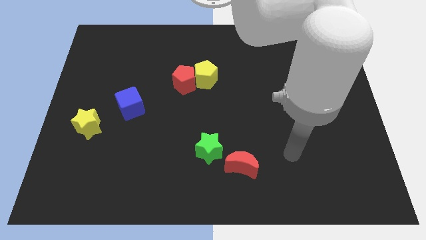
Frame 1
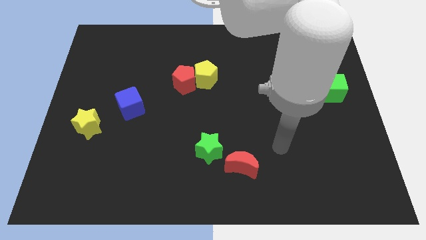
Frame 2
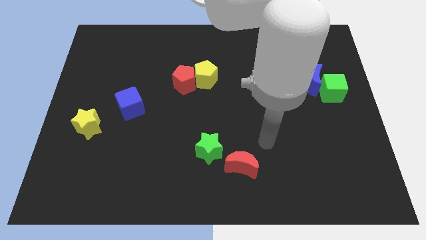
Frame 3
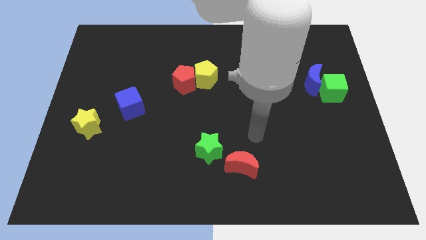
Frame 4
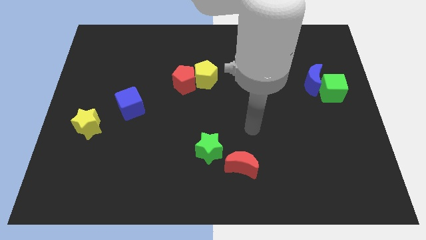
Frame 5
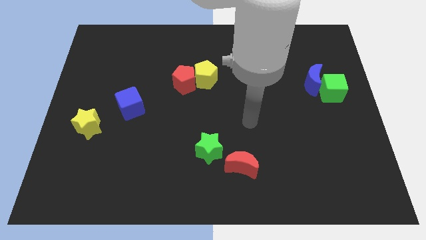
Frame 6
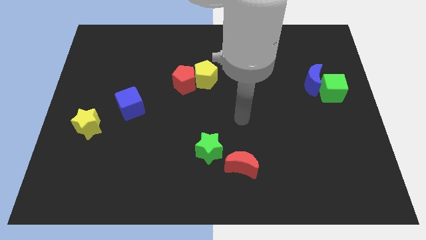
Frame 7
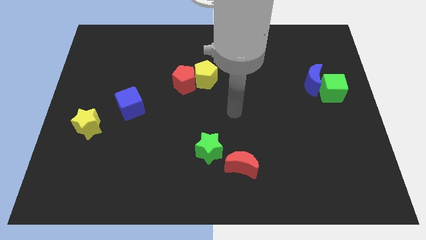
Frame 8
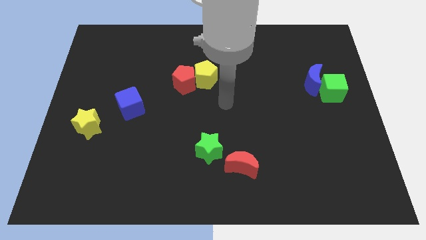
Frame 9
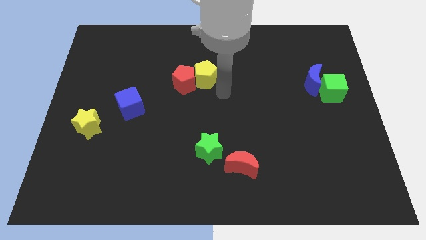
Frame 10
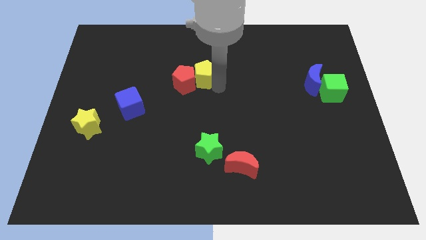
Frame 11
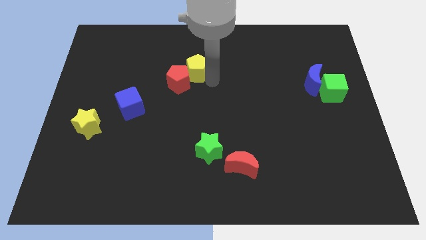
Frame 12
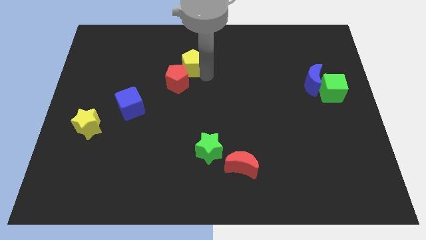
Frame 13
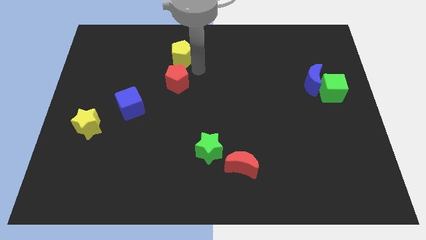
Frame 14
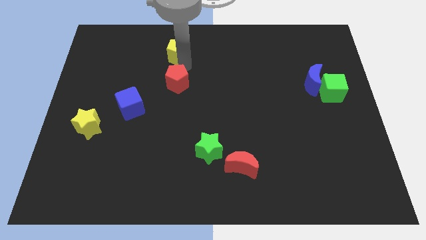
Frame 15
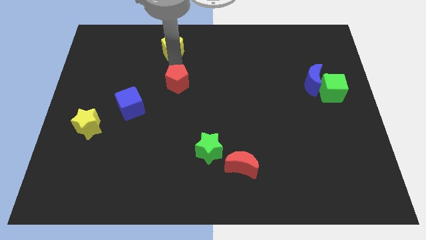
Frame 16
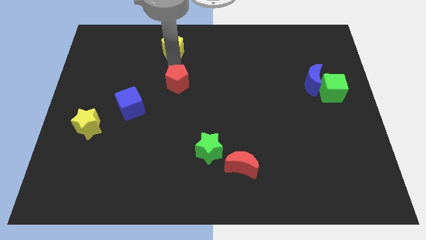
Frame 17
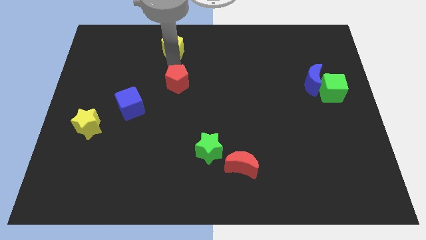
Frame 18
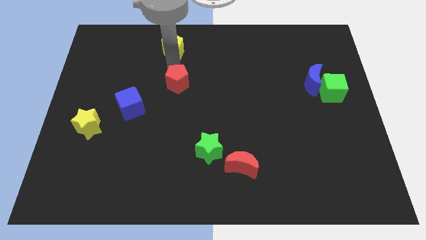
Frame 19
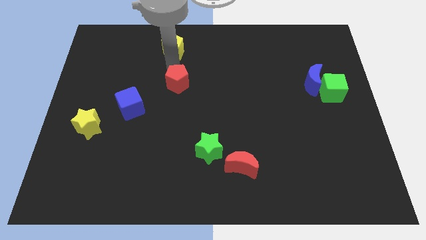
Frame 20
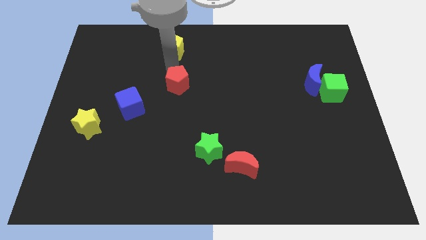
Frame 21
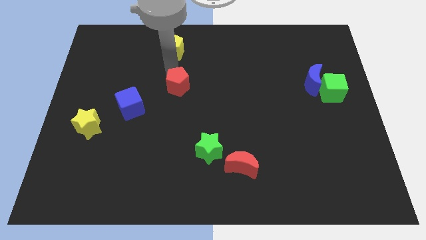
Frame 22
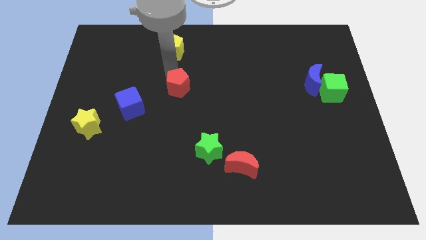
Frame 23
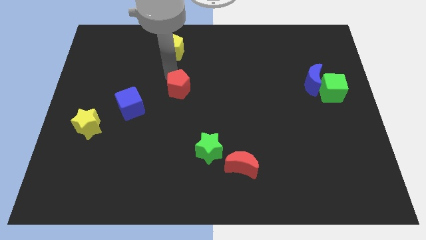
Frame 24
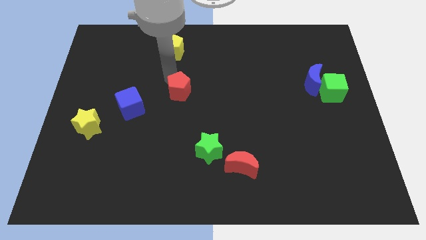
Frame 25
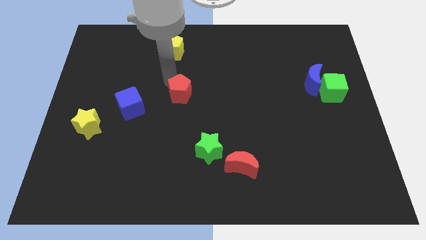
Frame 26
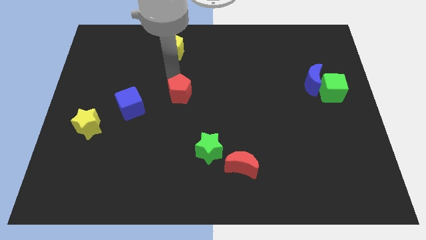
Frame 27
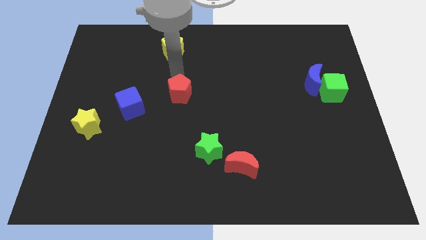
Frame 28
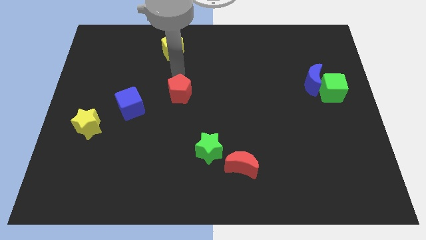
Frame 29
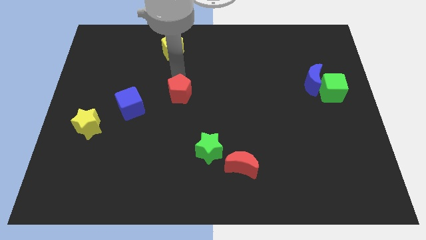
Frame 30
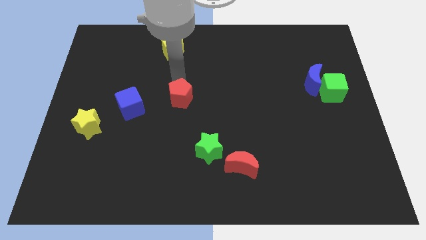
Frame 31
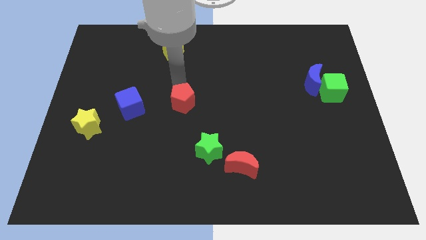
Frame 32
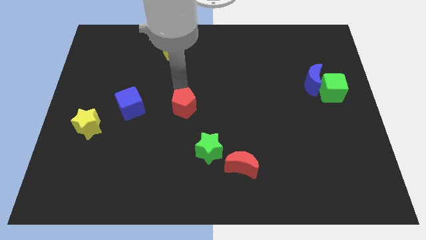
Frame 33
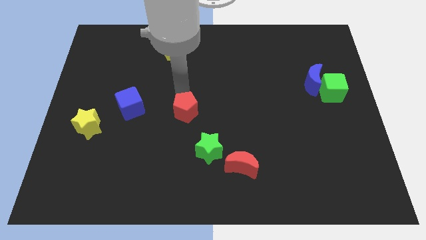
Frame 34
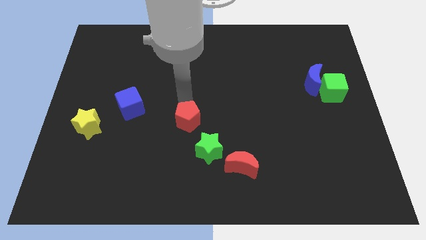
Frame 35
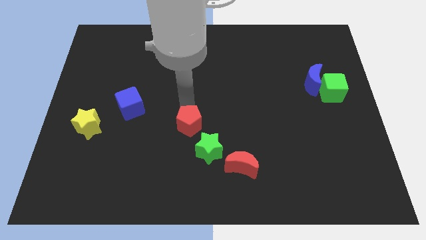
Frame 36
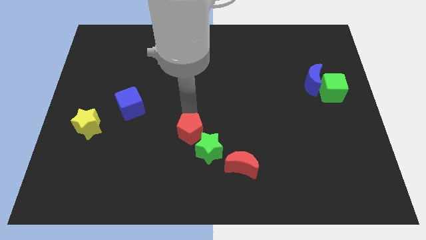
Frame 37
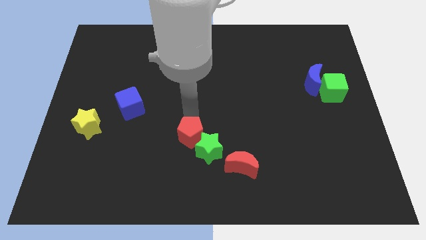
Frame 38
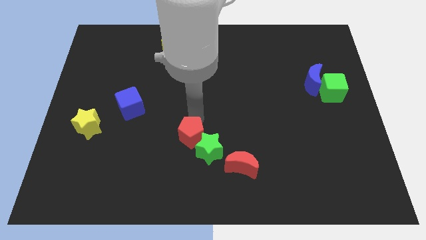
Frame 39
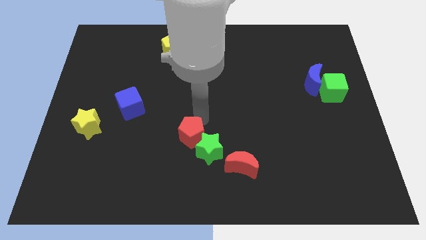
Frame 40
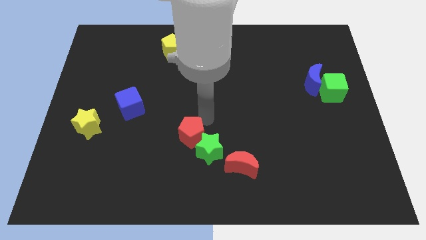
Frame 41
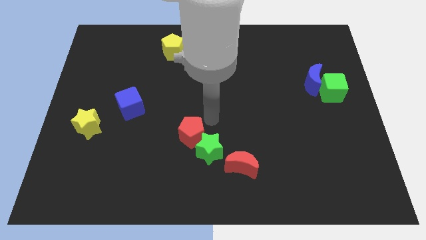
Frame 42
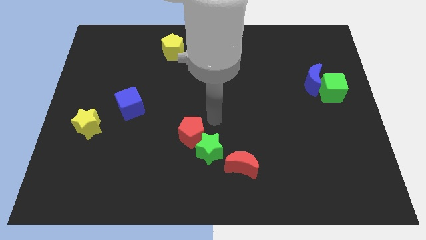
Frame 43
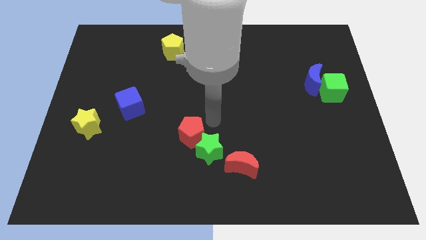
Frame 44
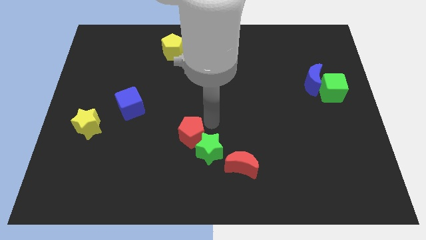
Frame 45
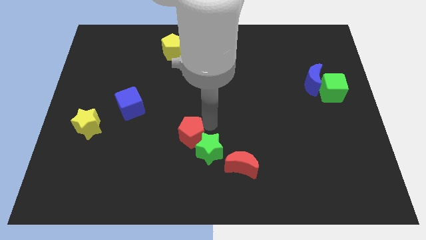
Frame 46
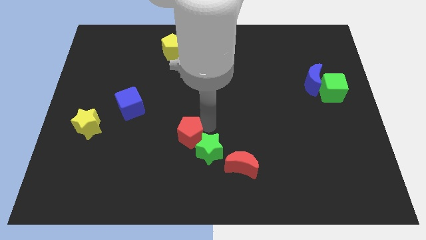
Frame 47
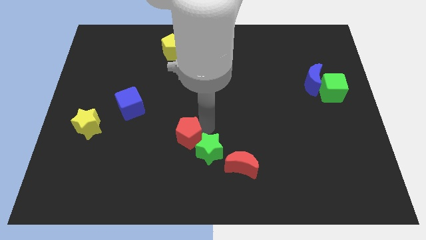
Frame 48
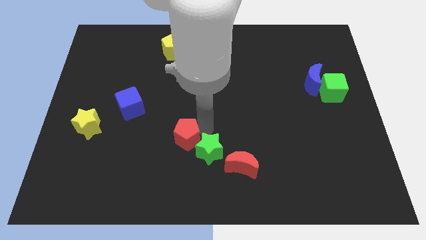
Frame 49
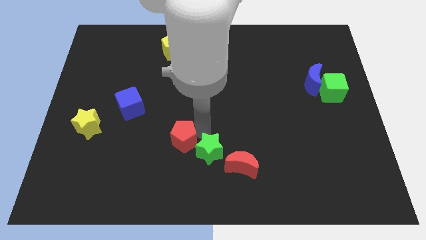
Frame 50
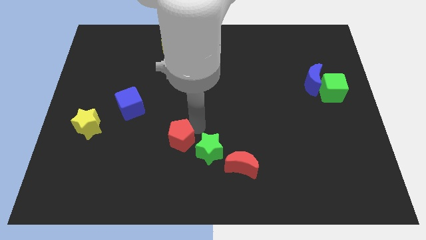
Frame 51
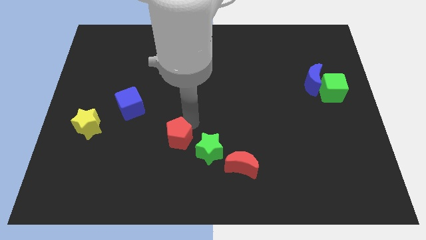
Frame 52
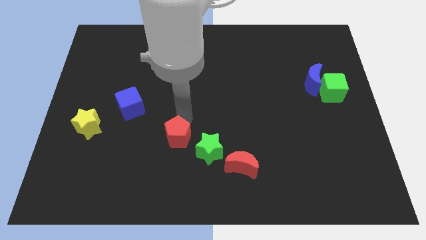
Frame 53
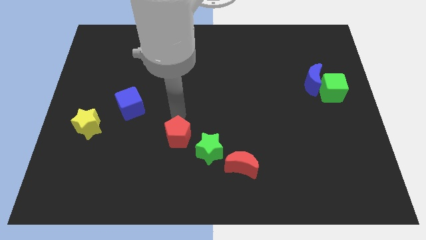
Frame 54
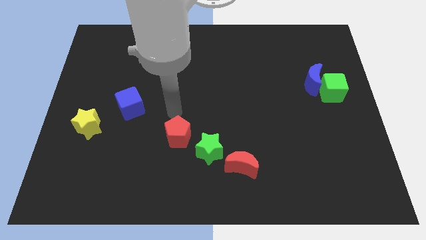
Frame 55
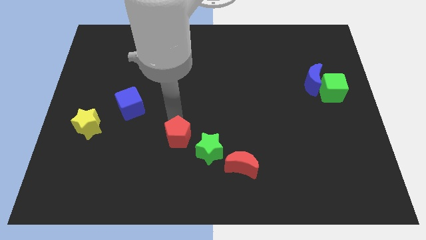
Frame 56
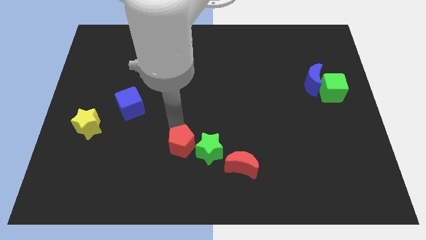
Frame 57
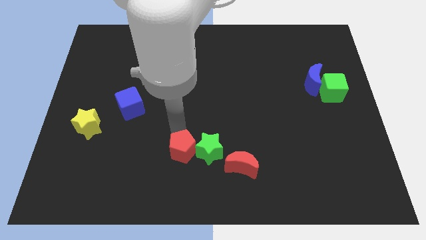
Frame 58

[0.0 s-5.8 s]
slide the red pentagon diagonally down and to the left of the green star
